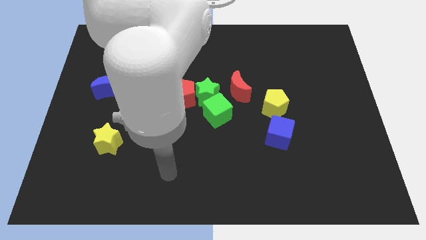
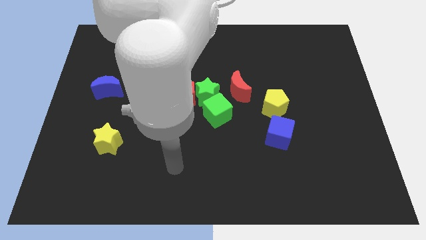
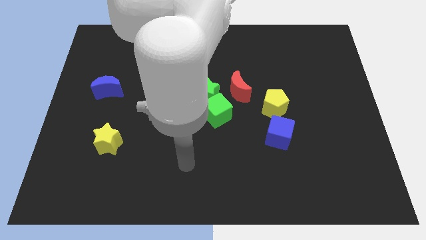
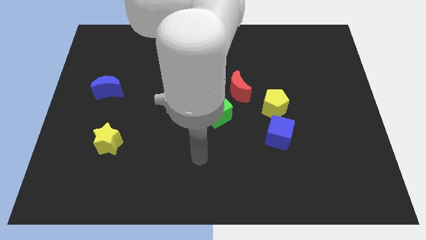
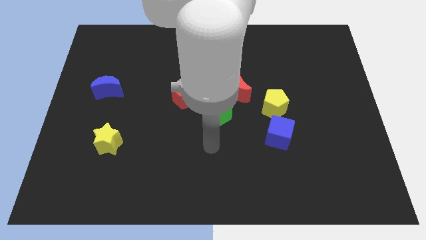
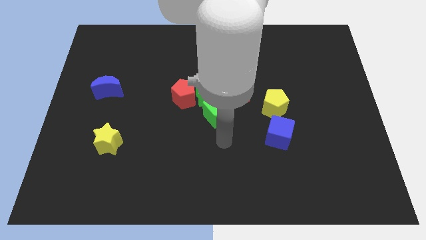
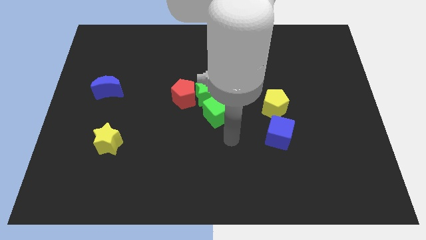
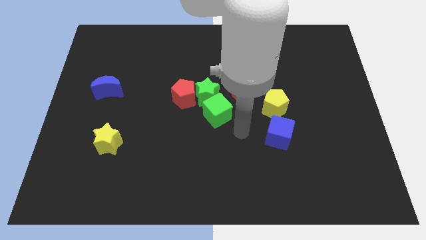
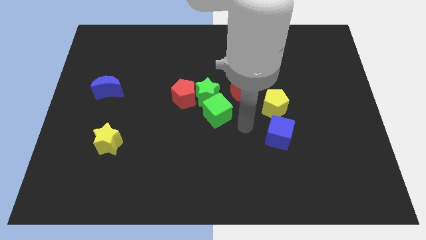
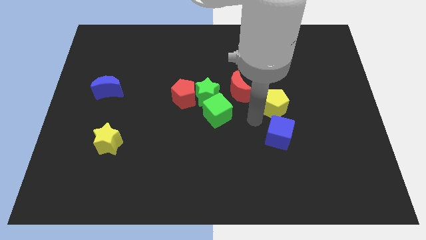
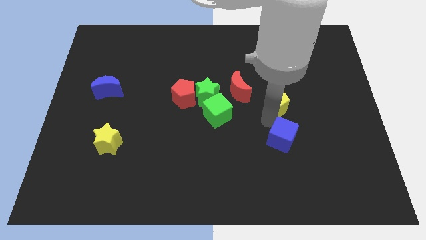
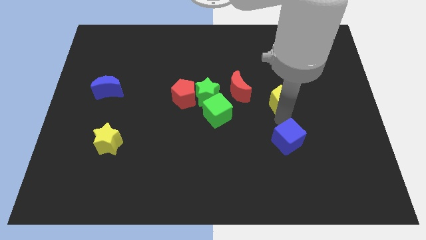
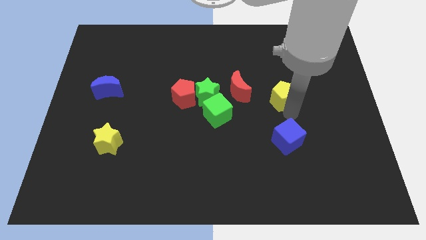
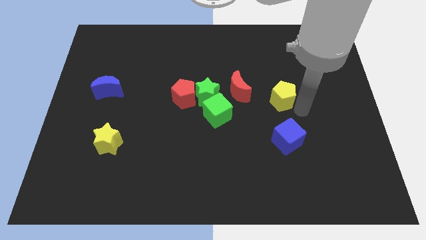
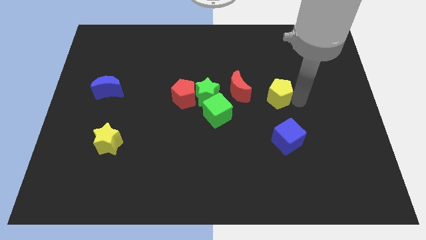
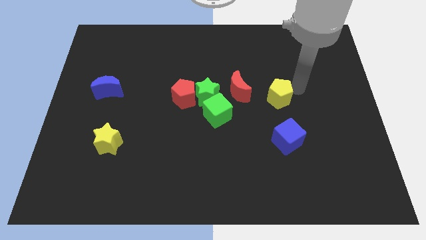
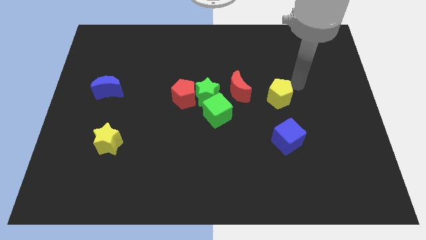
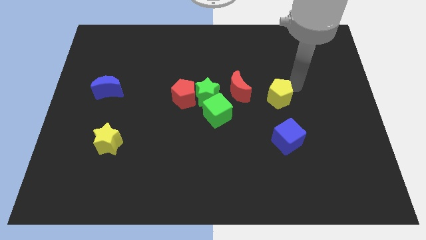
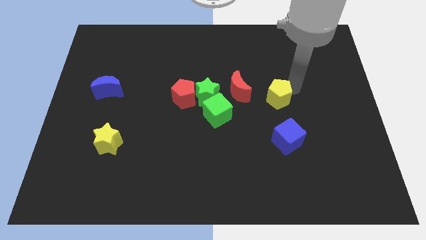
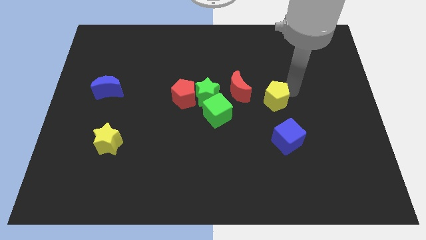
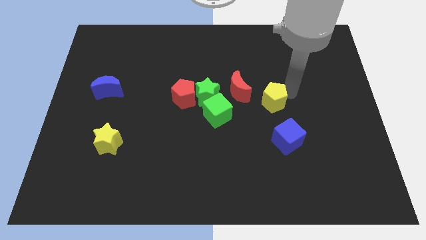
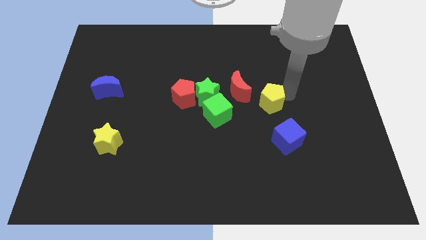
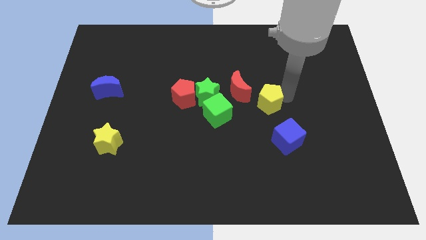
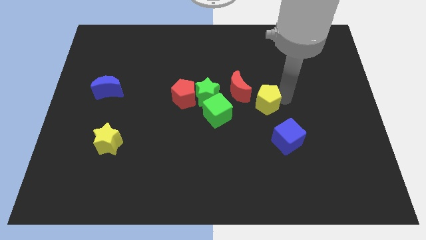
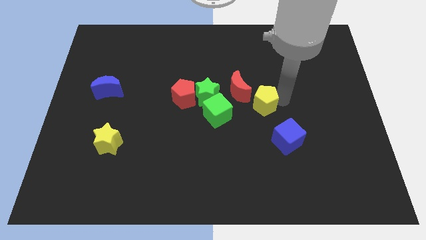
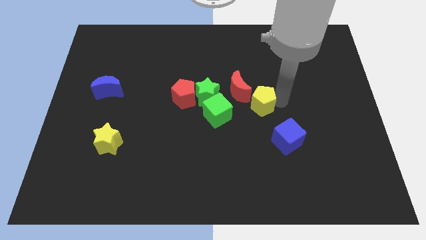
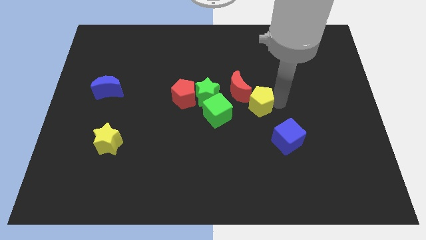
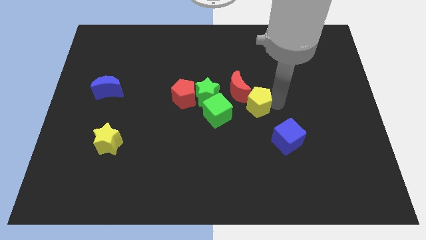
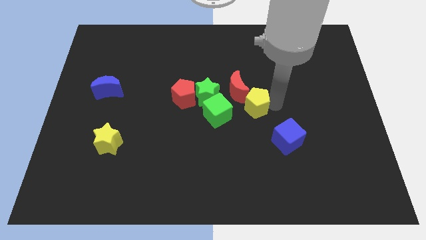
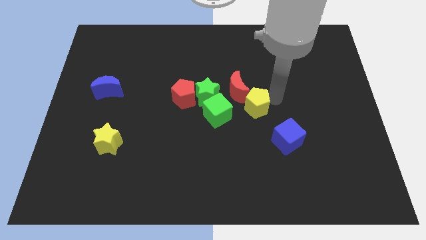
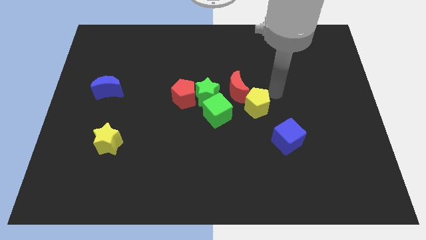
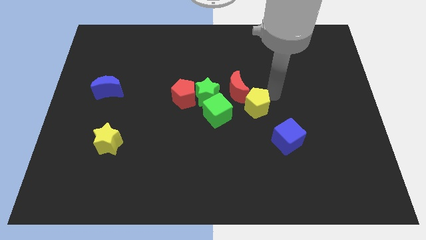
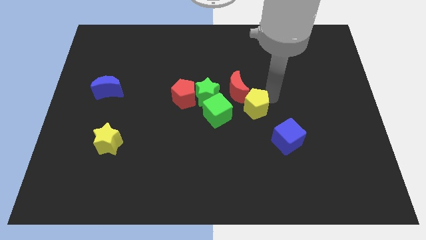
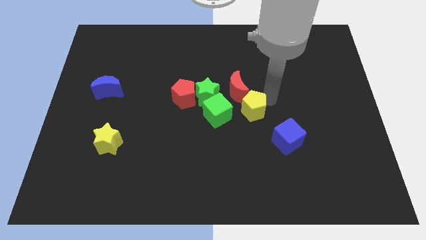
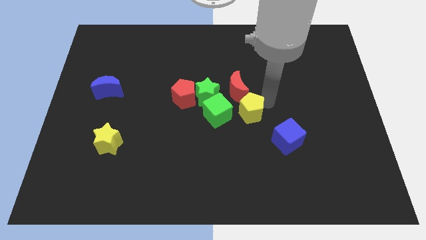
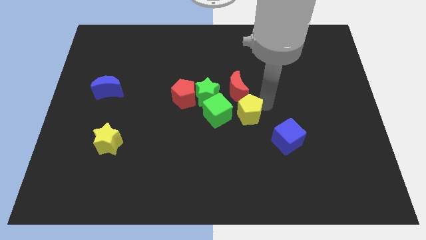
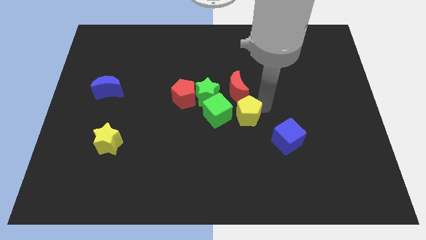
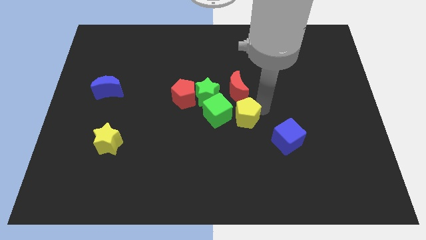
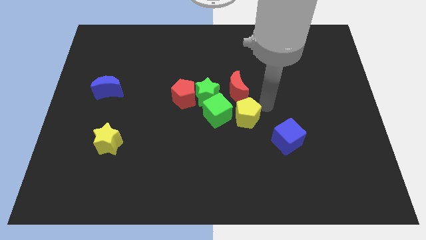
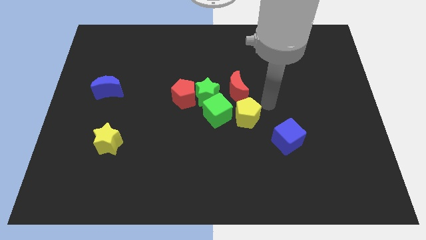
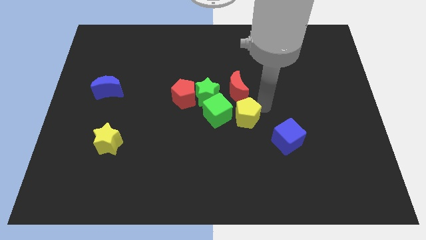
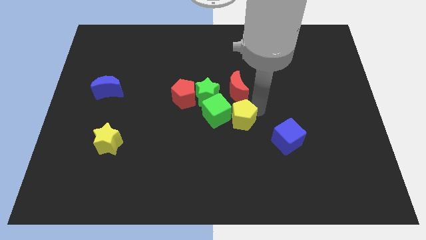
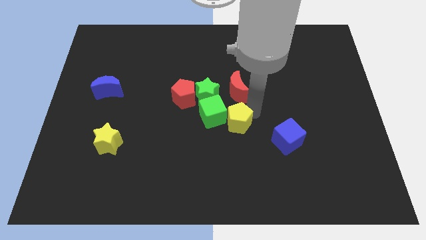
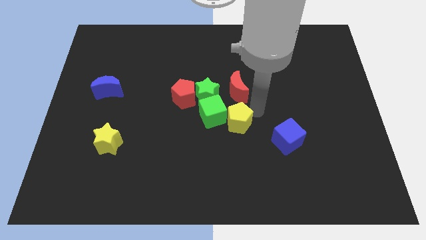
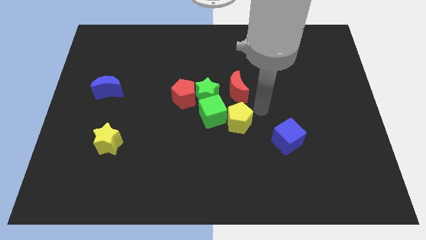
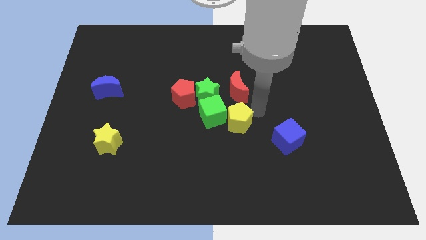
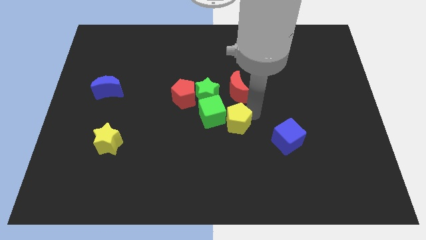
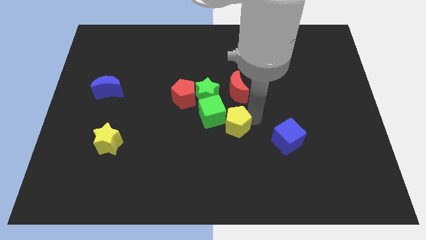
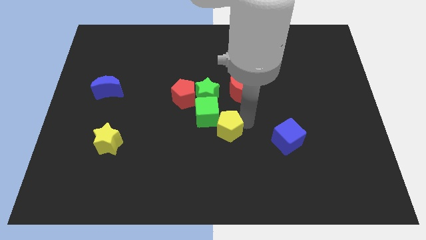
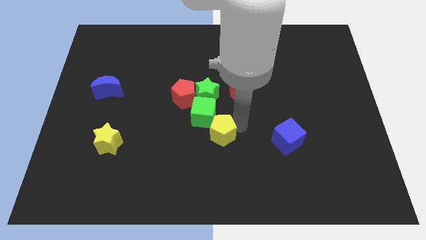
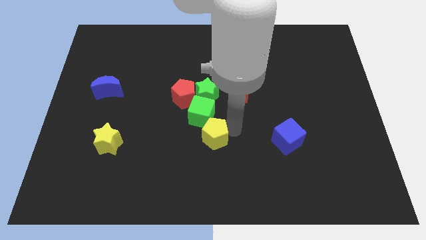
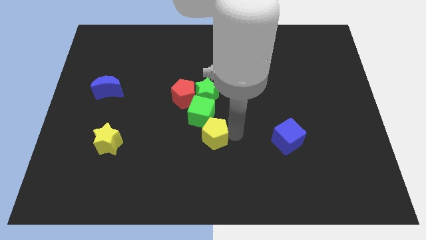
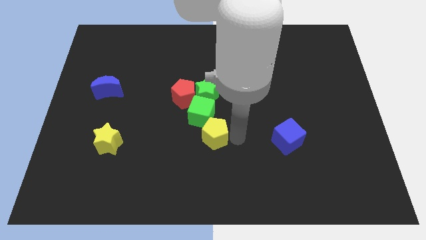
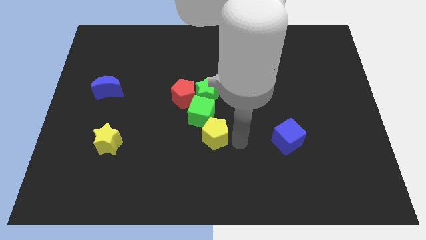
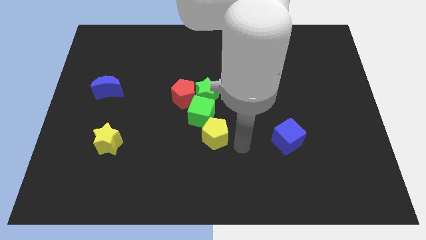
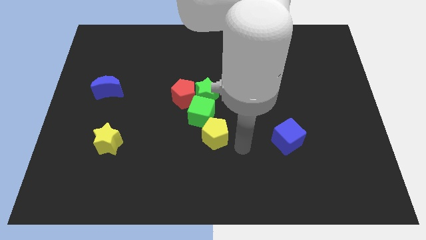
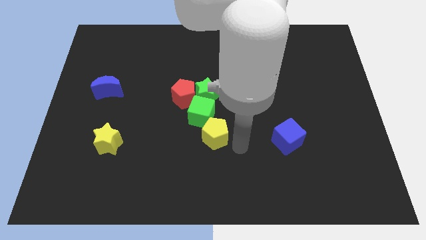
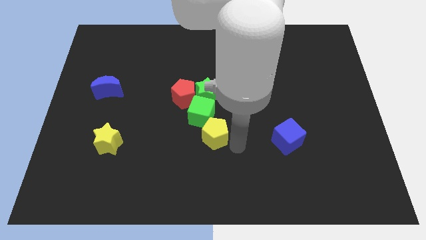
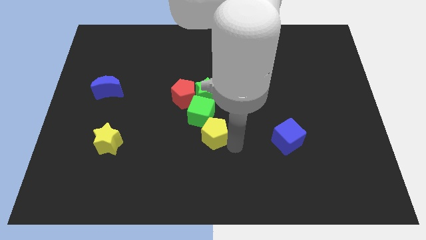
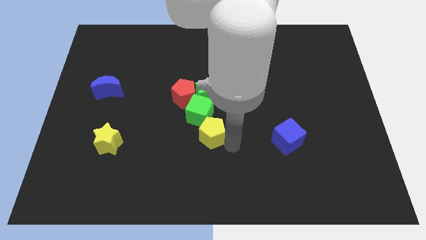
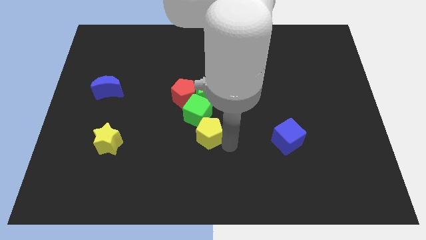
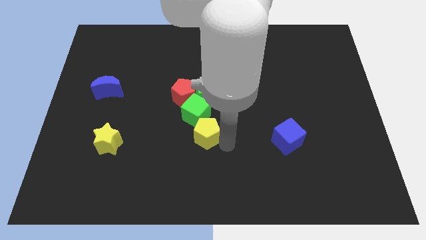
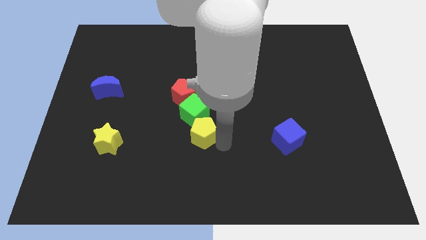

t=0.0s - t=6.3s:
move the yellow pentagon to the bottom of the red pentagon

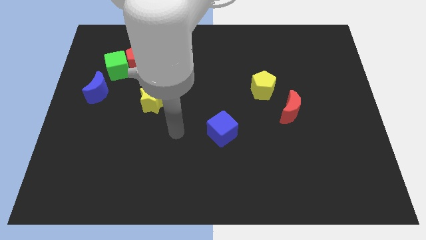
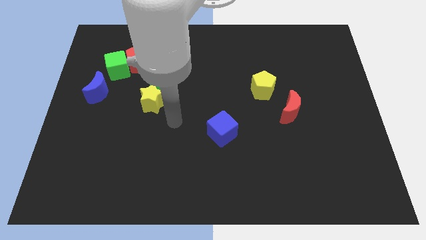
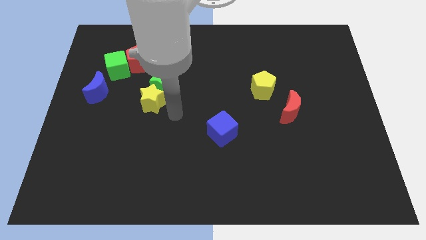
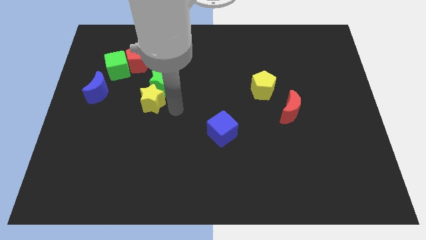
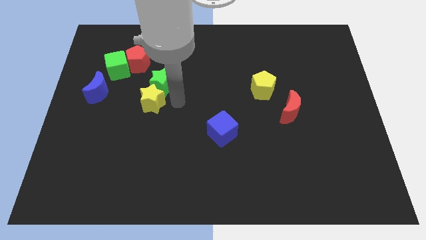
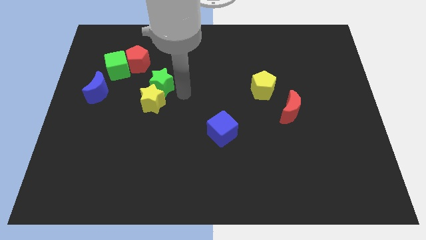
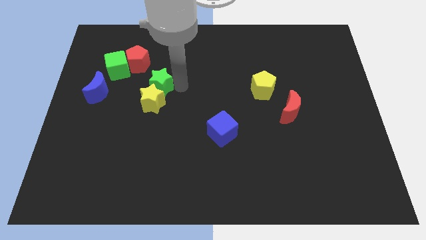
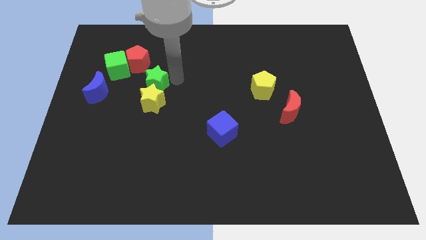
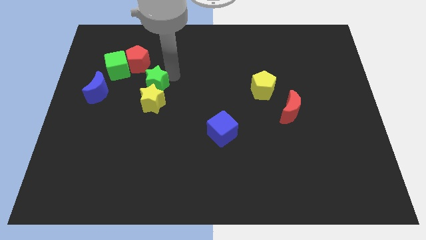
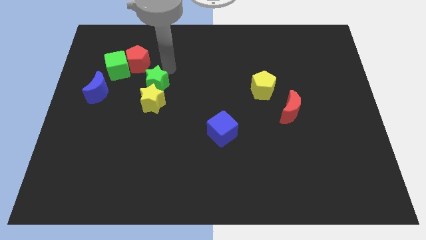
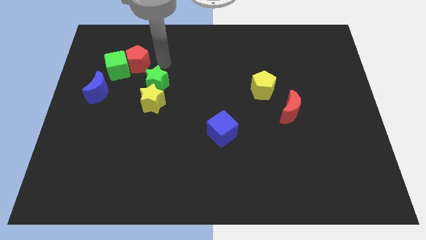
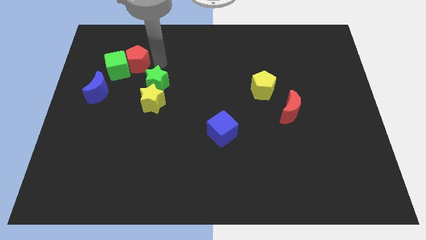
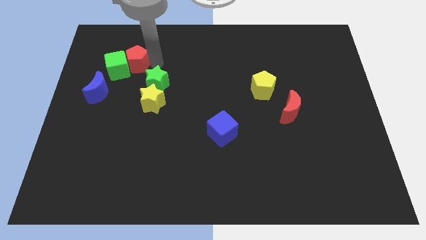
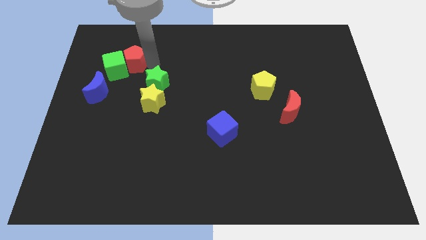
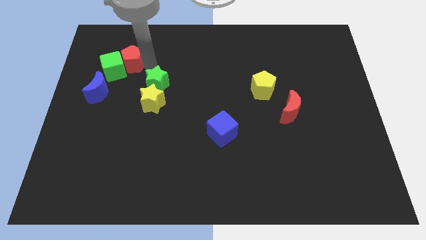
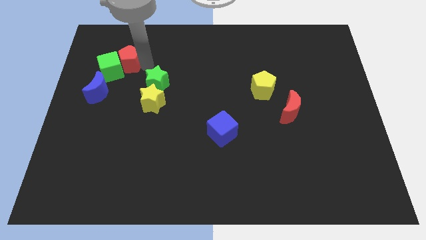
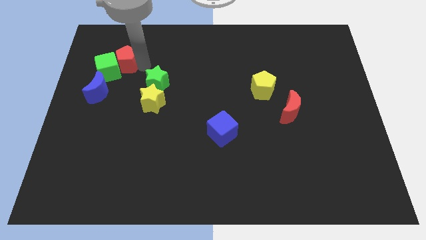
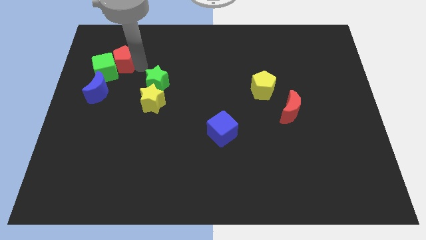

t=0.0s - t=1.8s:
move the red pentagon to the top side of the blue moon
